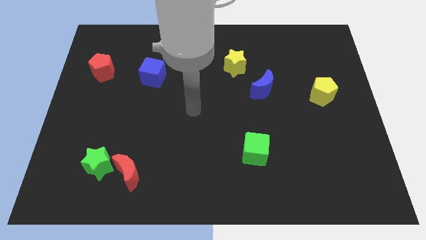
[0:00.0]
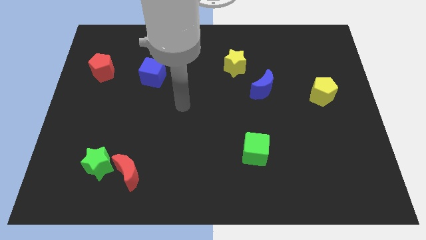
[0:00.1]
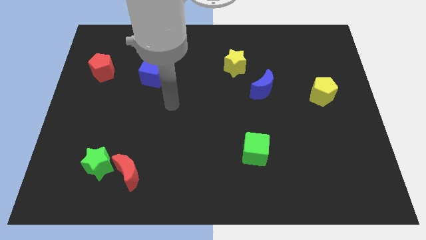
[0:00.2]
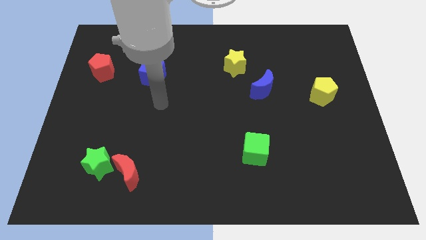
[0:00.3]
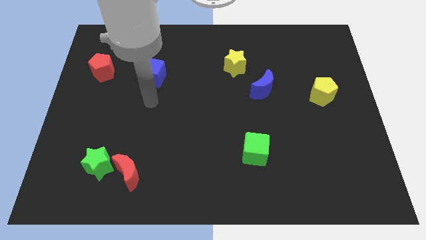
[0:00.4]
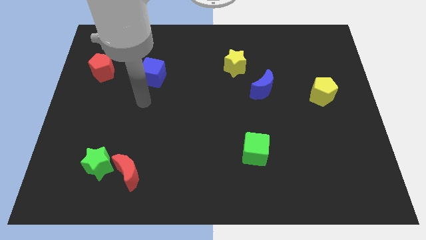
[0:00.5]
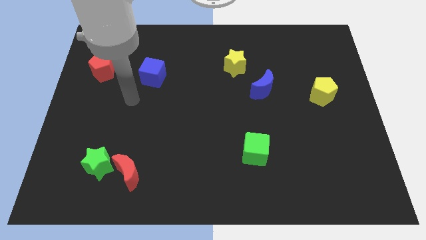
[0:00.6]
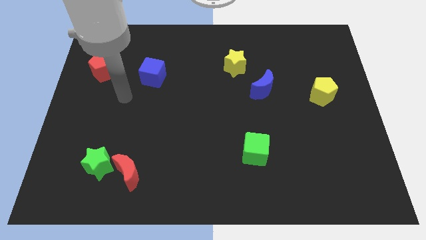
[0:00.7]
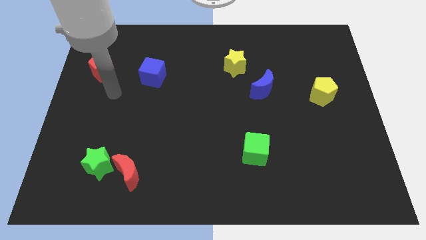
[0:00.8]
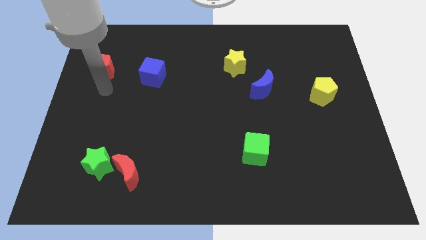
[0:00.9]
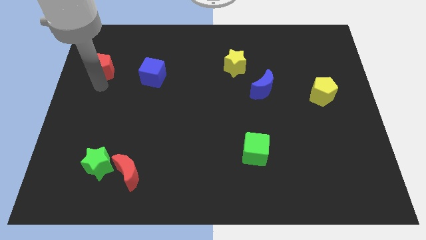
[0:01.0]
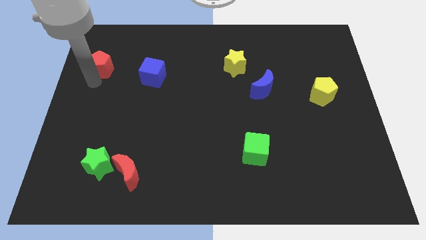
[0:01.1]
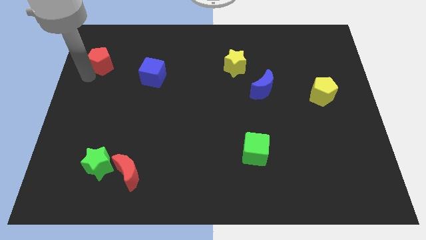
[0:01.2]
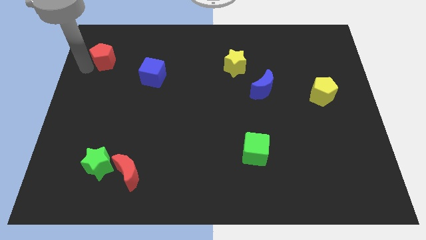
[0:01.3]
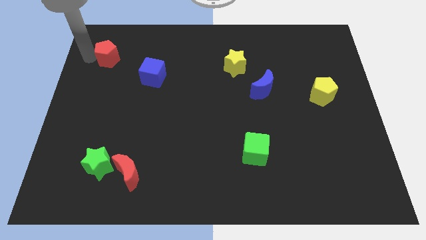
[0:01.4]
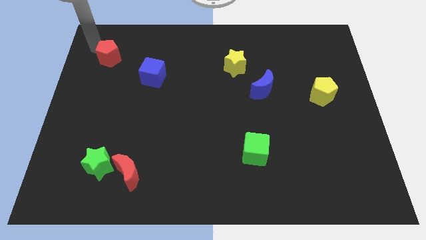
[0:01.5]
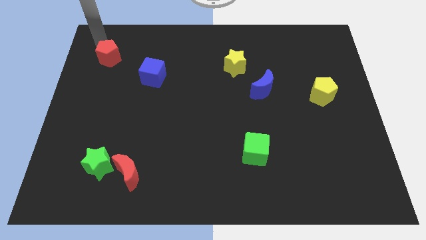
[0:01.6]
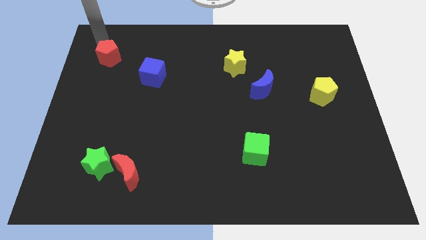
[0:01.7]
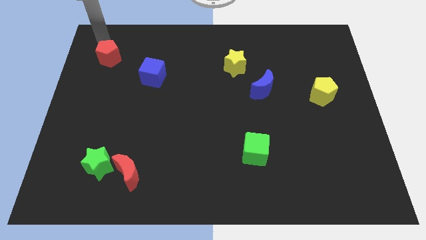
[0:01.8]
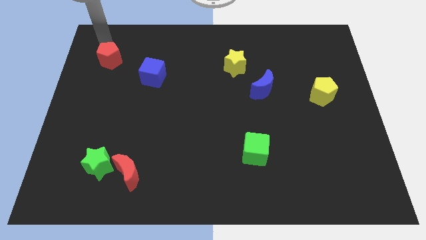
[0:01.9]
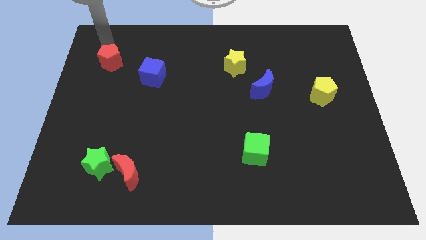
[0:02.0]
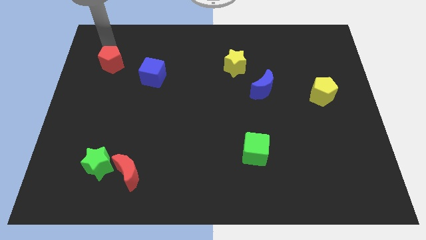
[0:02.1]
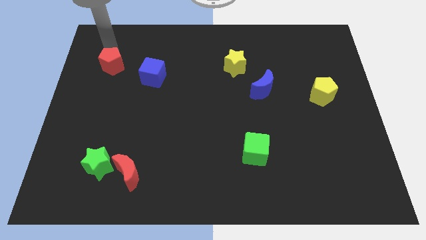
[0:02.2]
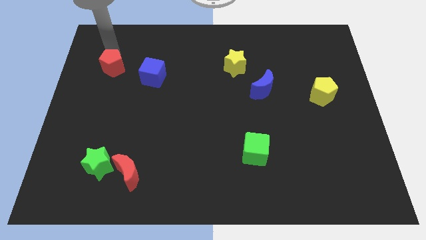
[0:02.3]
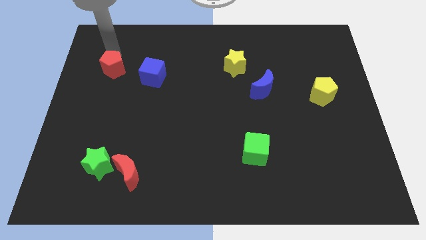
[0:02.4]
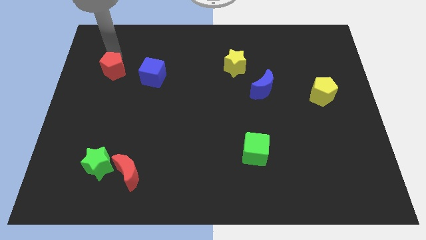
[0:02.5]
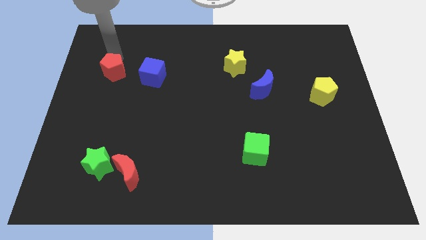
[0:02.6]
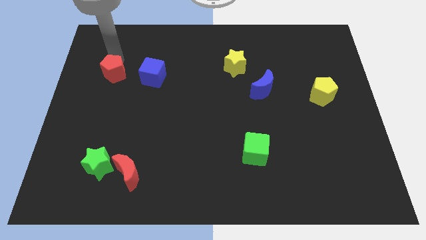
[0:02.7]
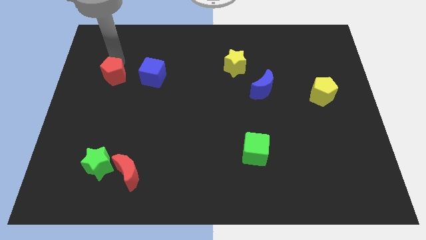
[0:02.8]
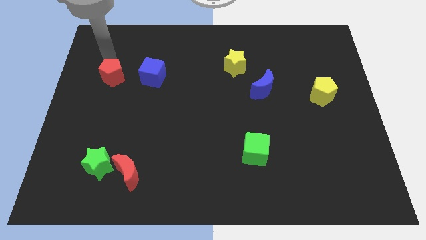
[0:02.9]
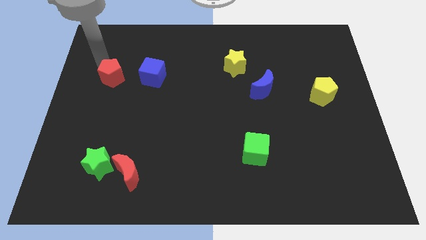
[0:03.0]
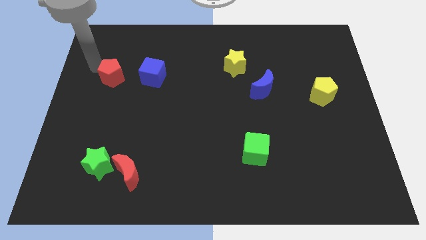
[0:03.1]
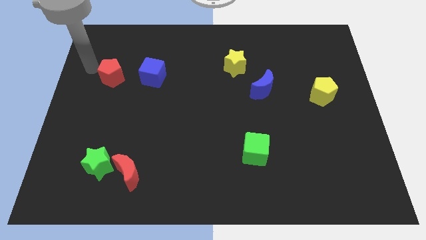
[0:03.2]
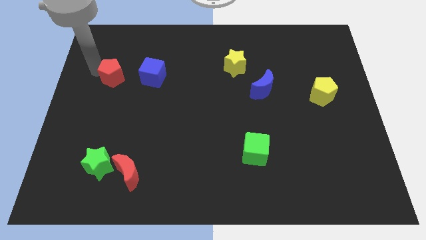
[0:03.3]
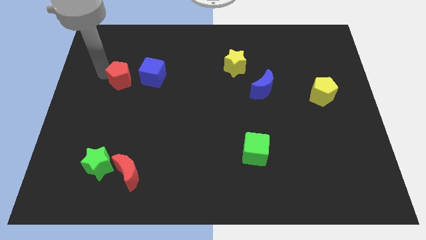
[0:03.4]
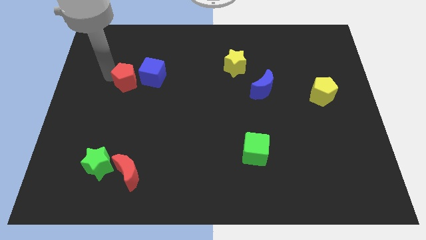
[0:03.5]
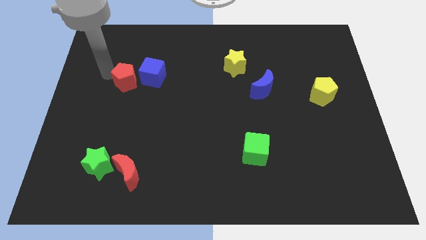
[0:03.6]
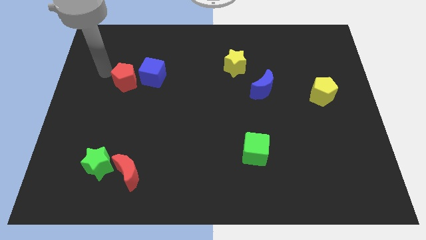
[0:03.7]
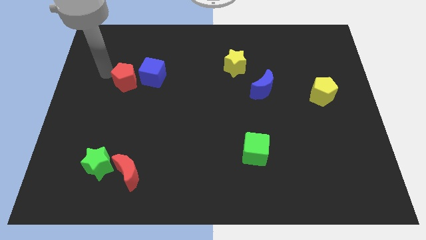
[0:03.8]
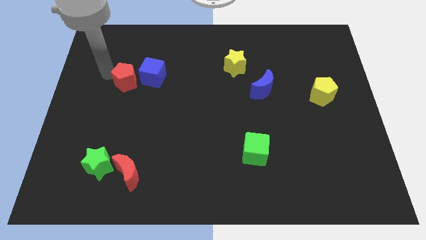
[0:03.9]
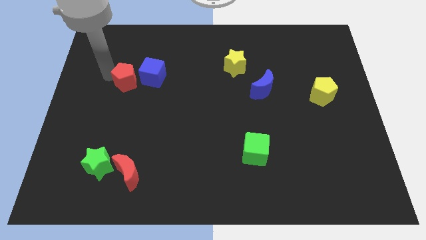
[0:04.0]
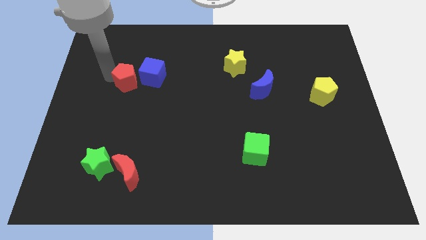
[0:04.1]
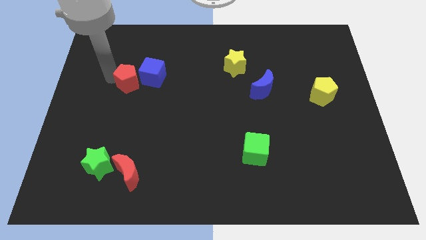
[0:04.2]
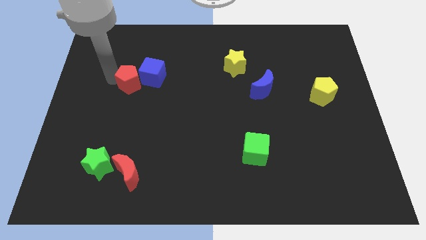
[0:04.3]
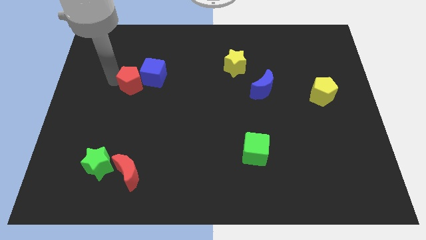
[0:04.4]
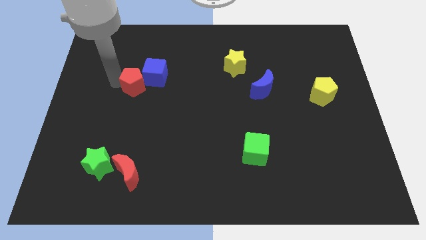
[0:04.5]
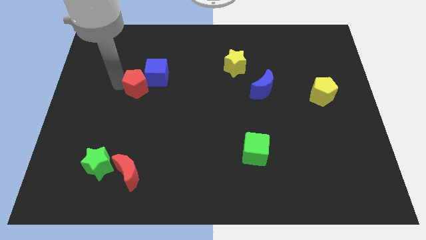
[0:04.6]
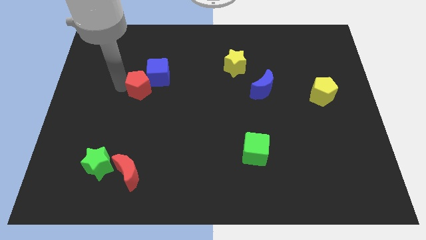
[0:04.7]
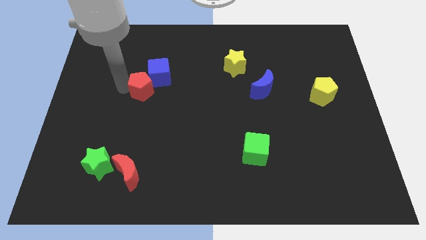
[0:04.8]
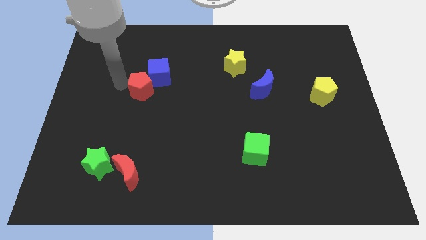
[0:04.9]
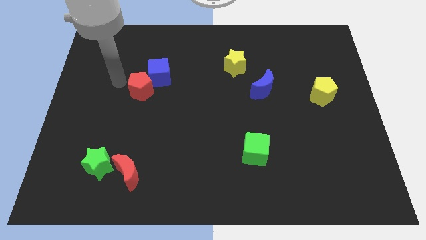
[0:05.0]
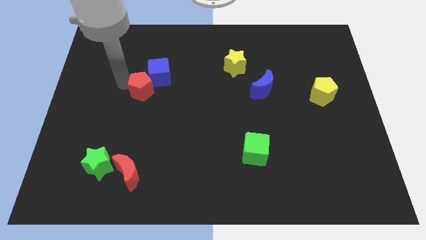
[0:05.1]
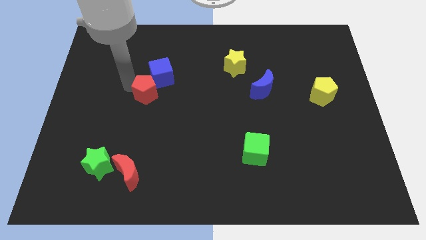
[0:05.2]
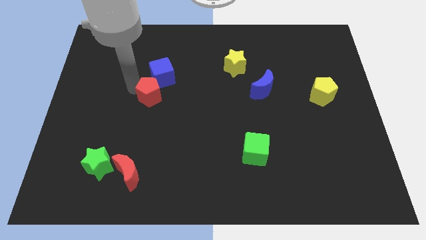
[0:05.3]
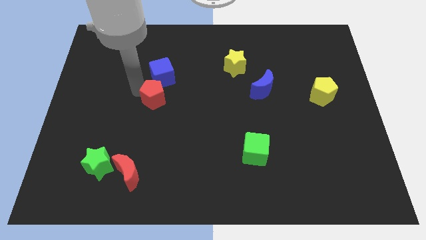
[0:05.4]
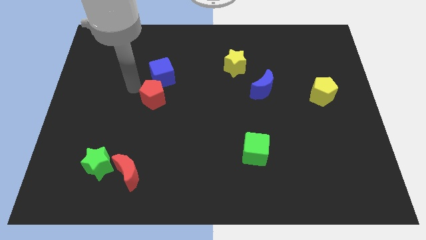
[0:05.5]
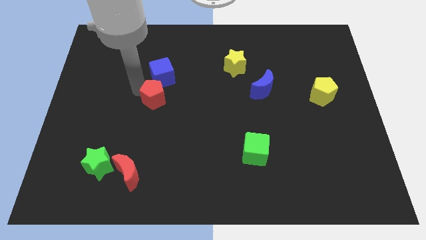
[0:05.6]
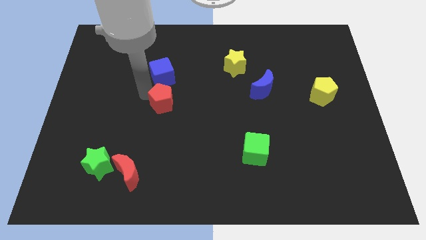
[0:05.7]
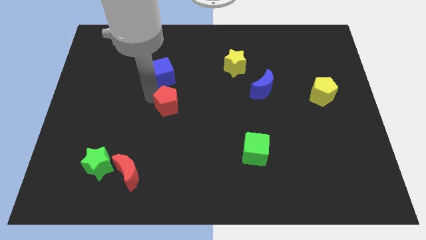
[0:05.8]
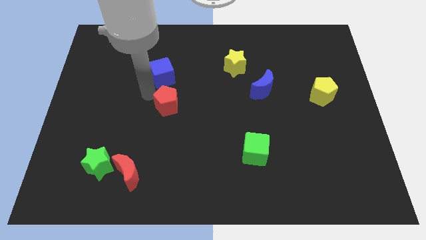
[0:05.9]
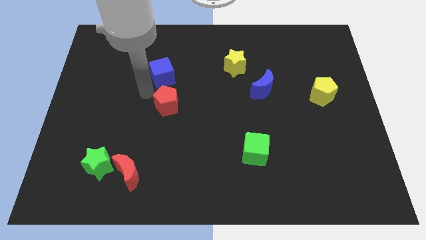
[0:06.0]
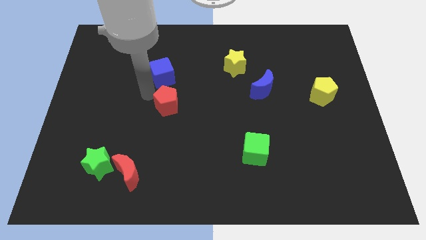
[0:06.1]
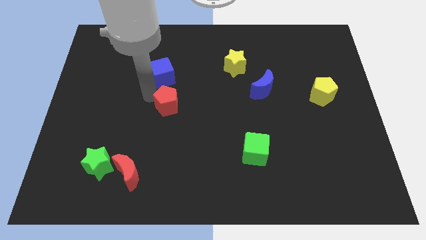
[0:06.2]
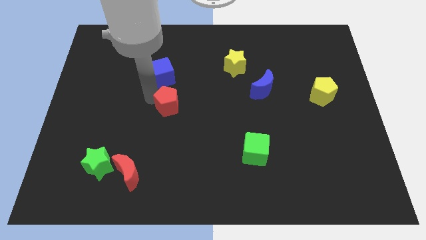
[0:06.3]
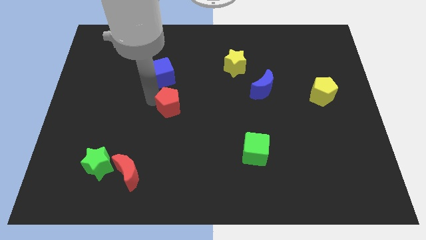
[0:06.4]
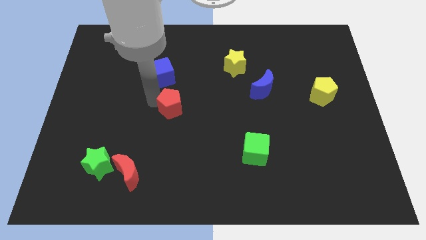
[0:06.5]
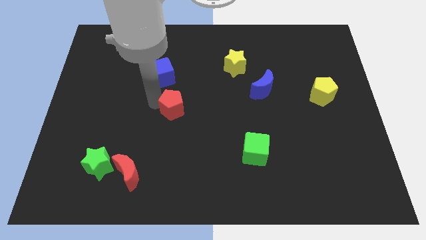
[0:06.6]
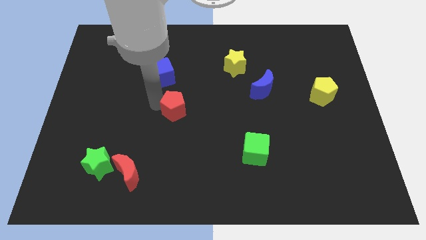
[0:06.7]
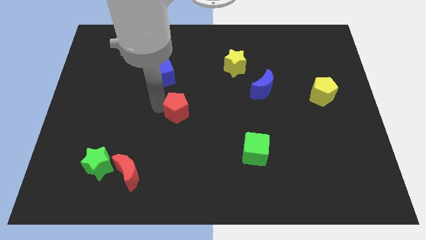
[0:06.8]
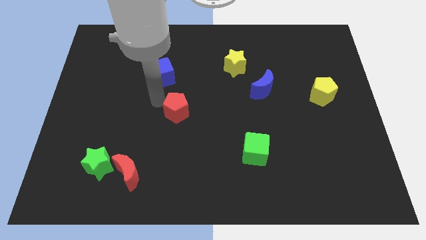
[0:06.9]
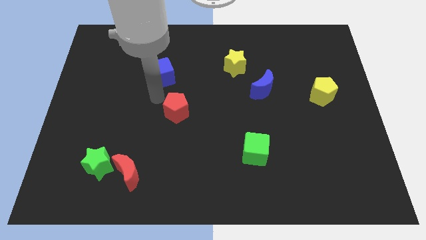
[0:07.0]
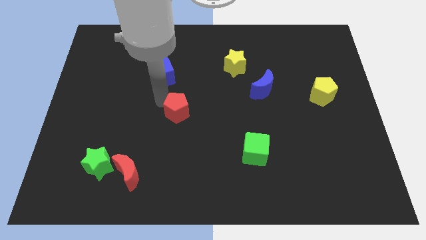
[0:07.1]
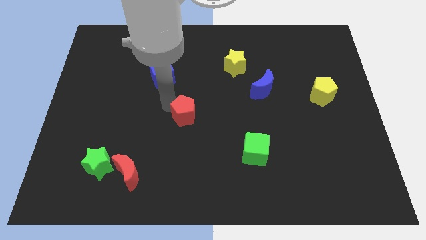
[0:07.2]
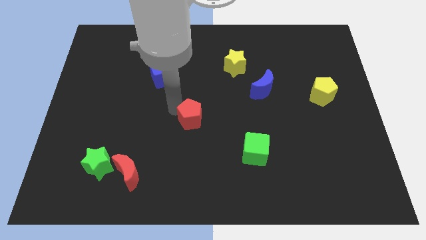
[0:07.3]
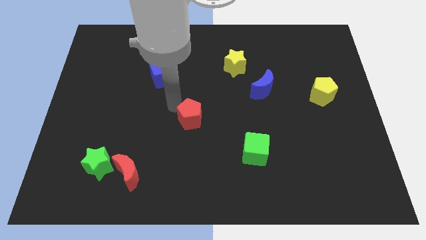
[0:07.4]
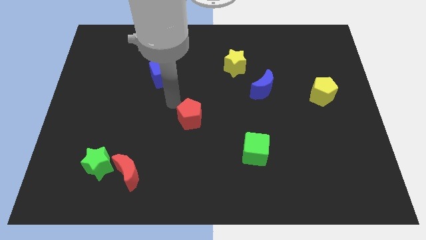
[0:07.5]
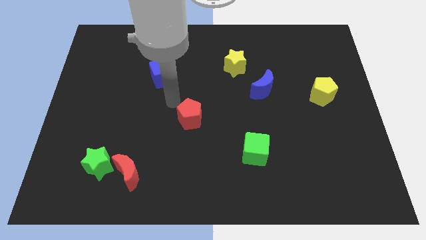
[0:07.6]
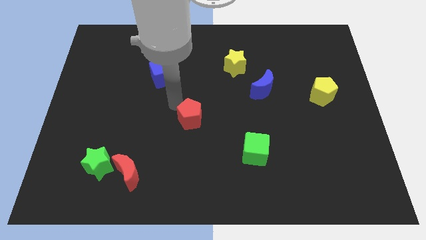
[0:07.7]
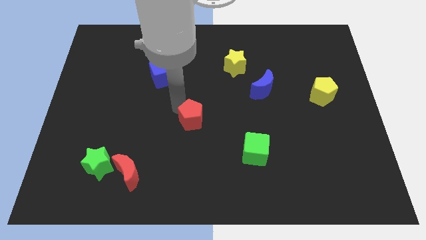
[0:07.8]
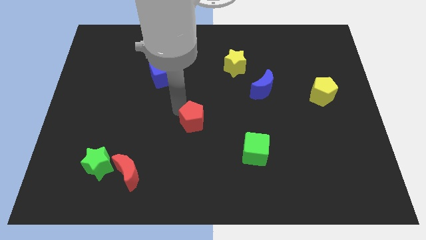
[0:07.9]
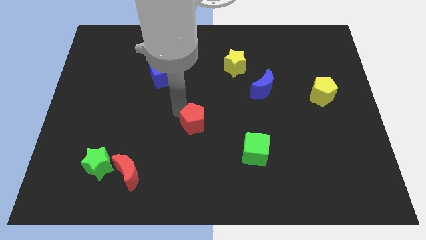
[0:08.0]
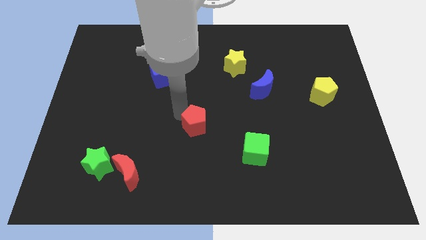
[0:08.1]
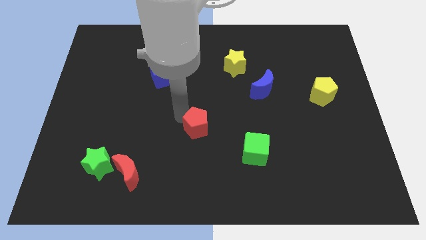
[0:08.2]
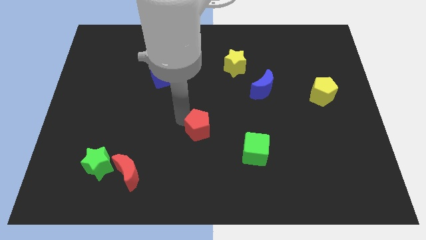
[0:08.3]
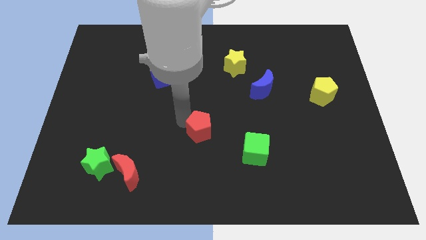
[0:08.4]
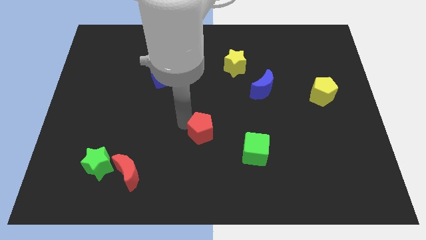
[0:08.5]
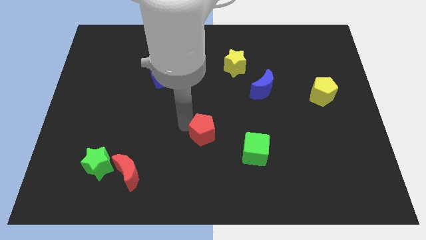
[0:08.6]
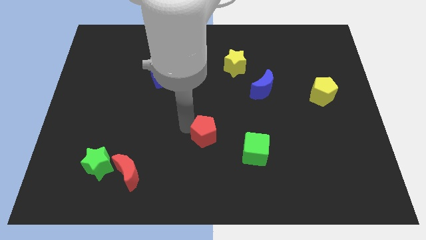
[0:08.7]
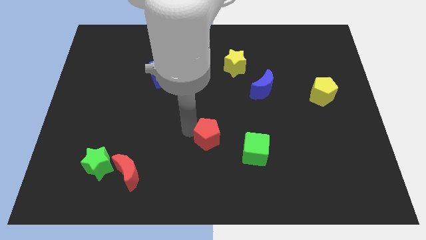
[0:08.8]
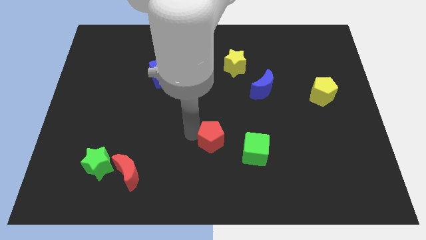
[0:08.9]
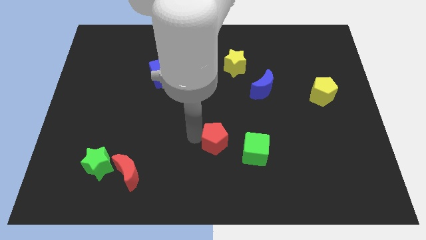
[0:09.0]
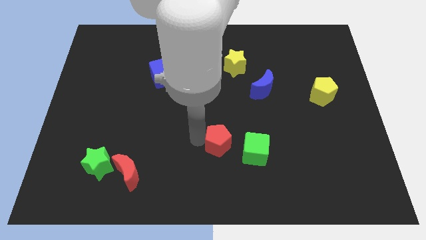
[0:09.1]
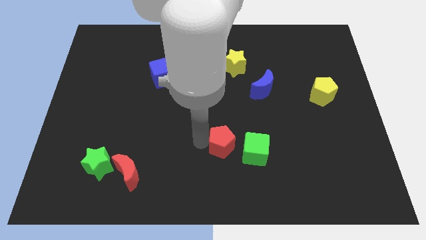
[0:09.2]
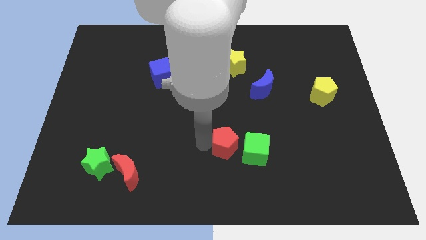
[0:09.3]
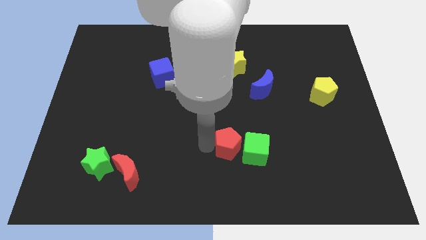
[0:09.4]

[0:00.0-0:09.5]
move the red pentagon towards the green cube
